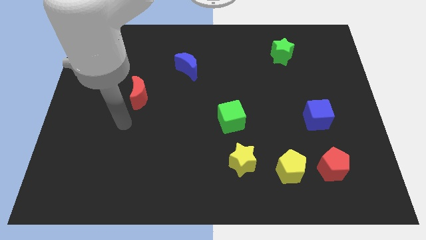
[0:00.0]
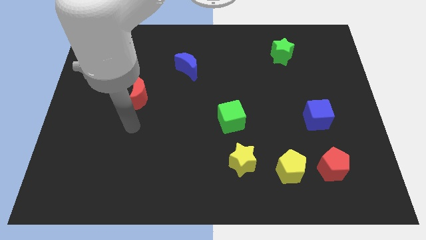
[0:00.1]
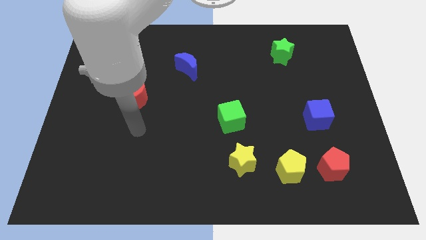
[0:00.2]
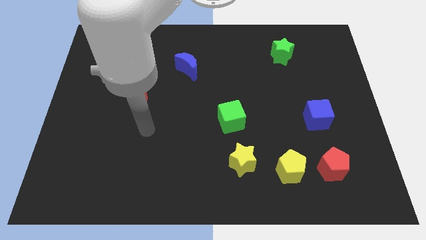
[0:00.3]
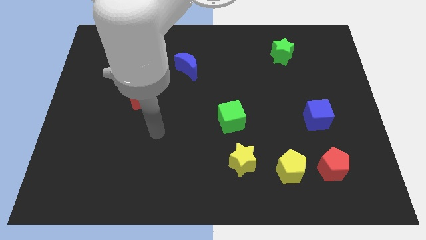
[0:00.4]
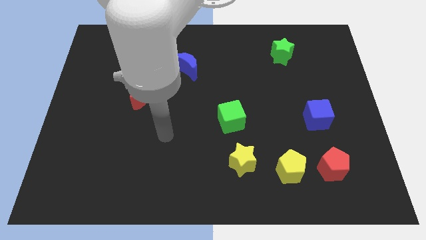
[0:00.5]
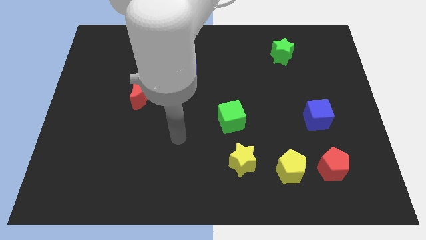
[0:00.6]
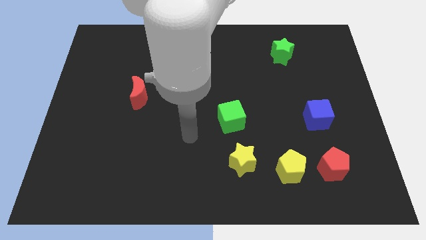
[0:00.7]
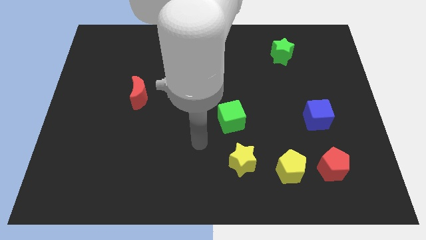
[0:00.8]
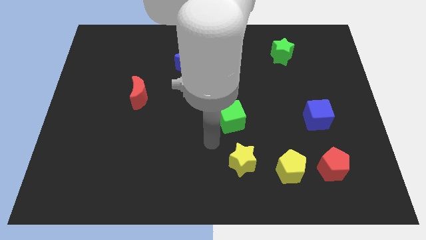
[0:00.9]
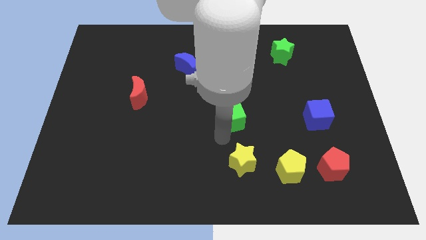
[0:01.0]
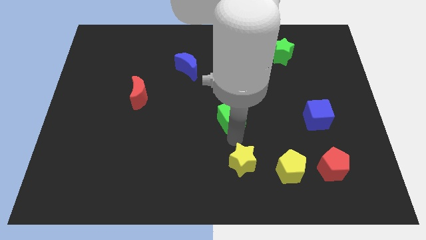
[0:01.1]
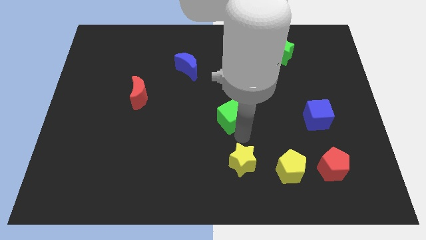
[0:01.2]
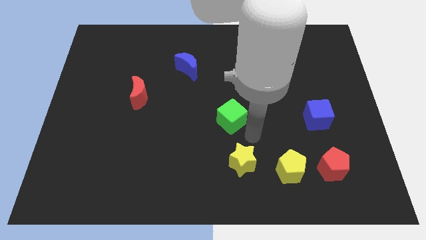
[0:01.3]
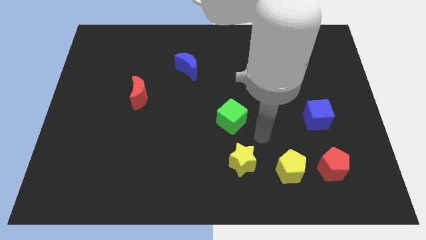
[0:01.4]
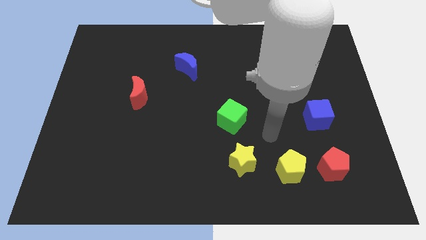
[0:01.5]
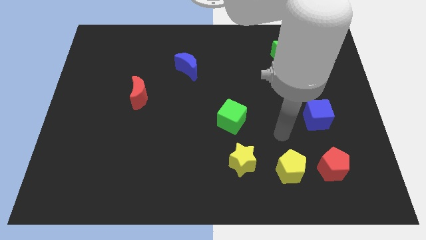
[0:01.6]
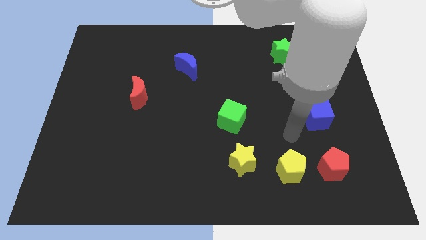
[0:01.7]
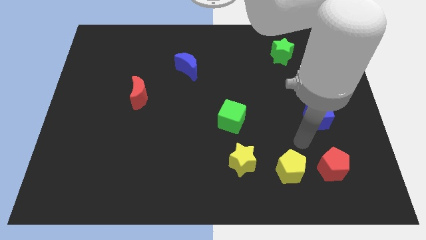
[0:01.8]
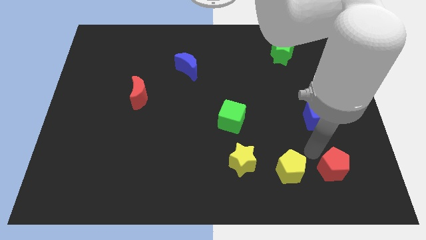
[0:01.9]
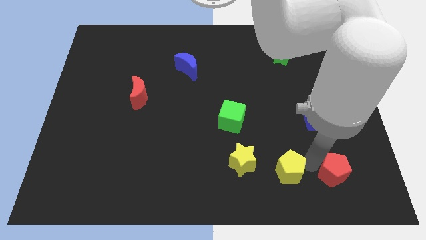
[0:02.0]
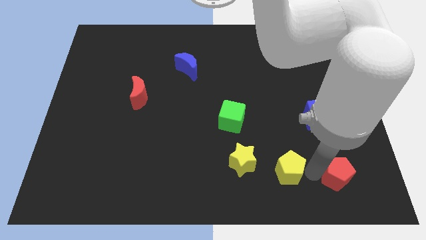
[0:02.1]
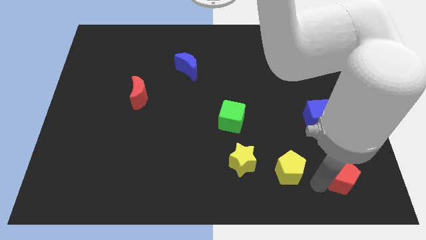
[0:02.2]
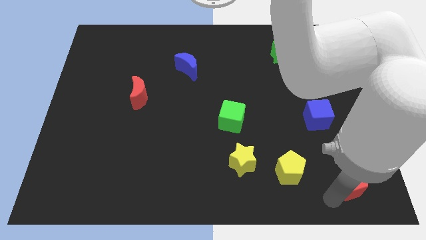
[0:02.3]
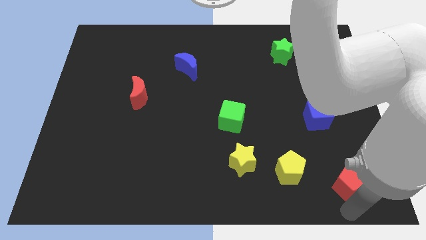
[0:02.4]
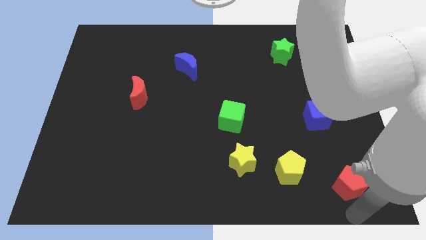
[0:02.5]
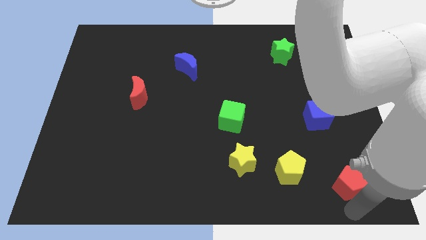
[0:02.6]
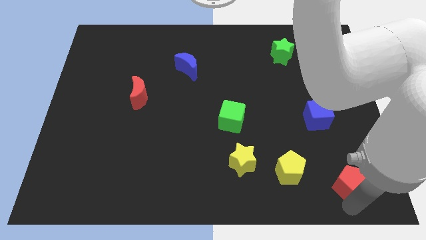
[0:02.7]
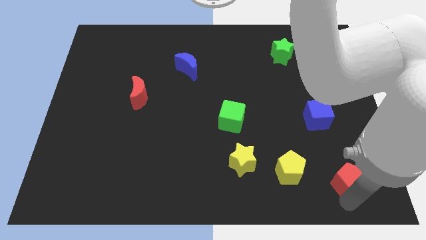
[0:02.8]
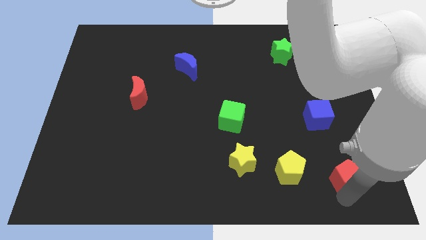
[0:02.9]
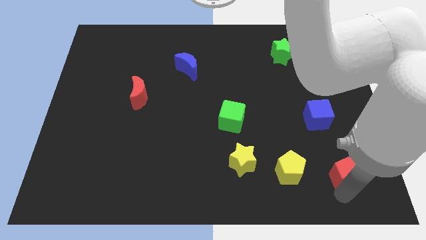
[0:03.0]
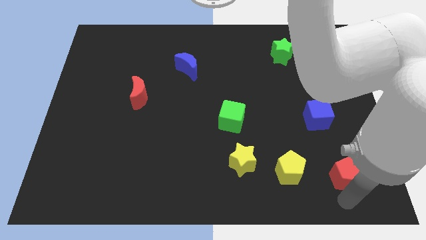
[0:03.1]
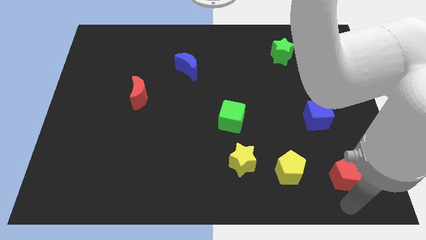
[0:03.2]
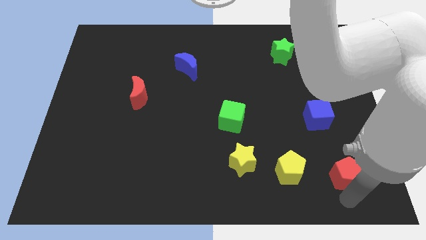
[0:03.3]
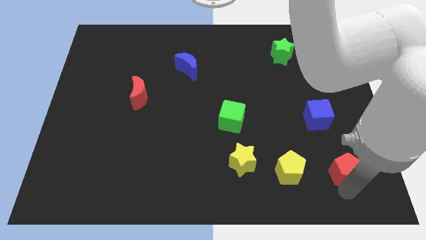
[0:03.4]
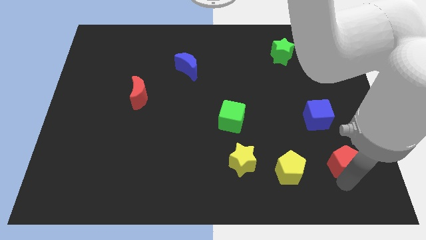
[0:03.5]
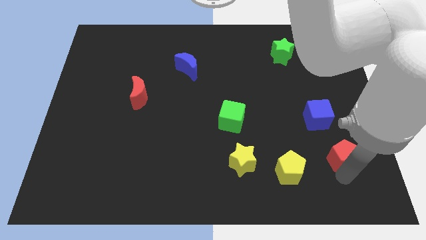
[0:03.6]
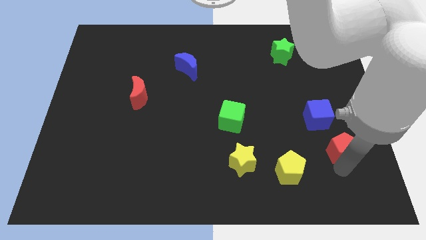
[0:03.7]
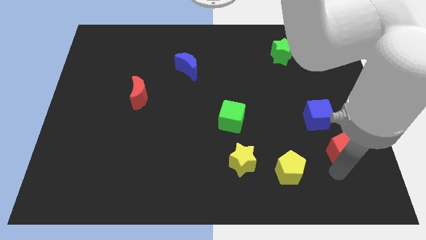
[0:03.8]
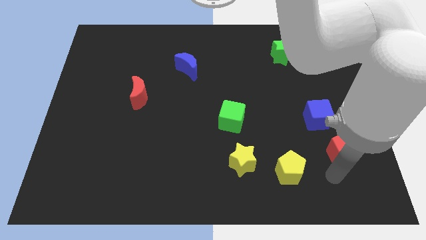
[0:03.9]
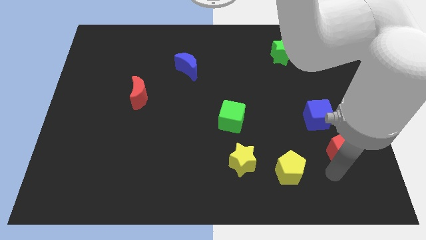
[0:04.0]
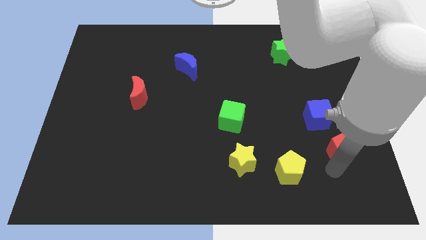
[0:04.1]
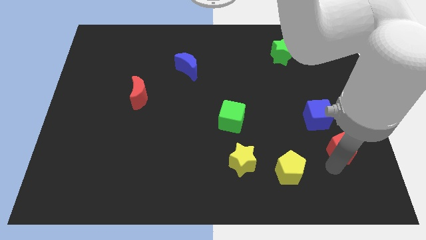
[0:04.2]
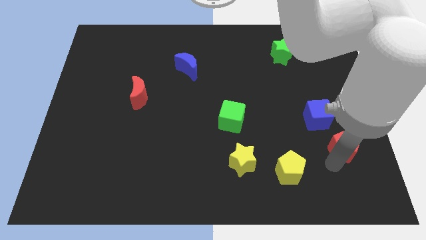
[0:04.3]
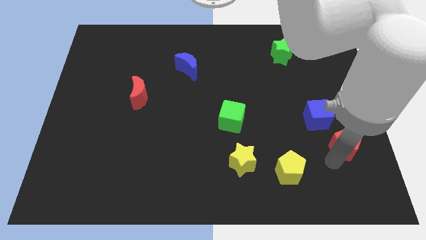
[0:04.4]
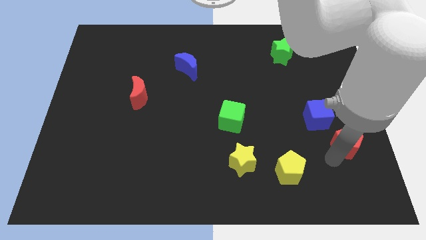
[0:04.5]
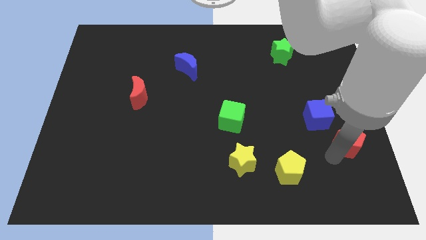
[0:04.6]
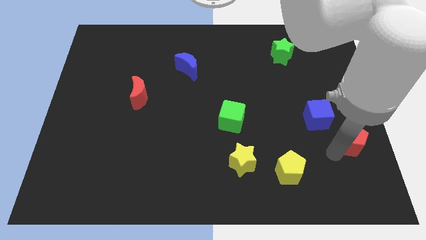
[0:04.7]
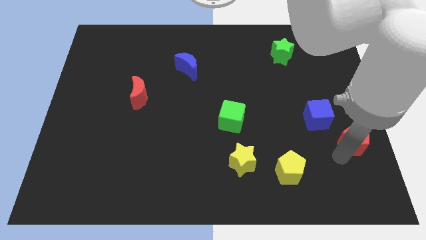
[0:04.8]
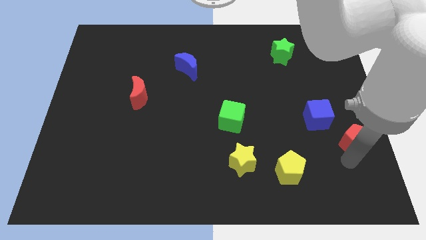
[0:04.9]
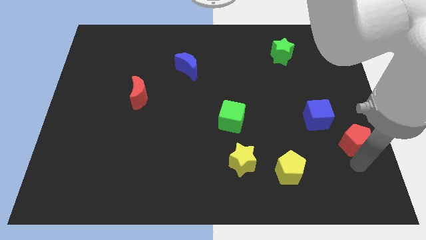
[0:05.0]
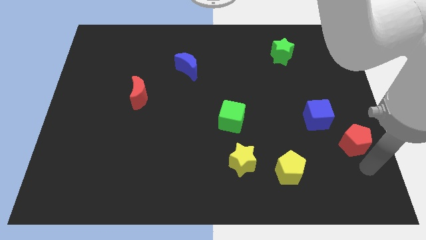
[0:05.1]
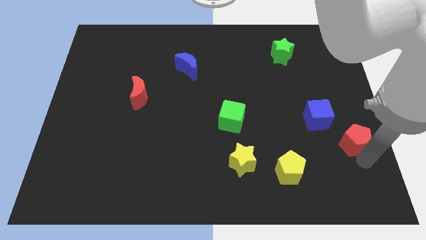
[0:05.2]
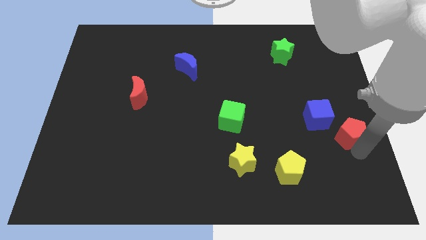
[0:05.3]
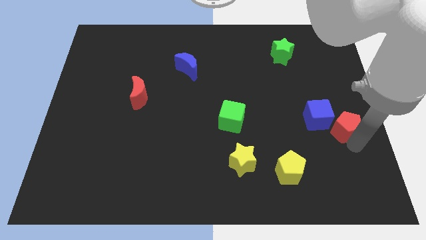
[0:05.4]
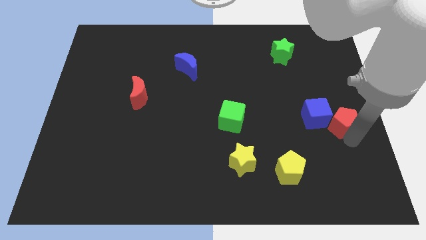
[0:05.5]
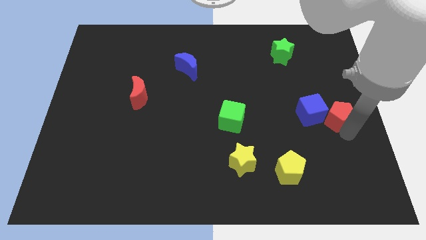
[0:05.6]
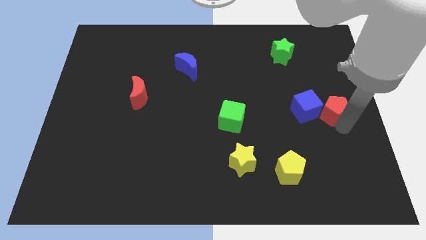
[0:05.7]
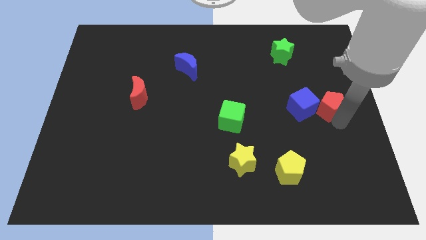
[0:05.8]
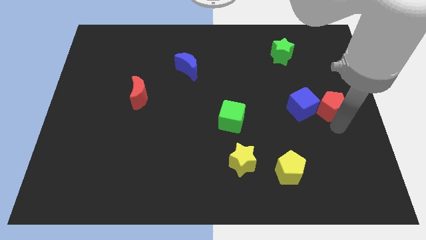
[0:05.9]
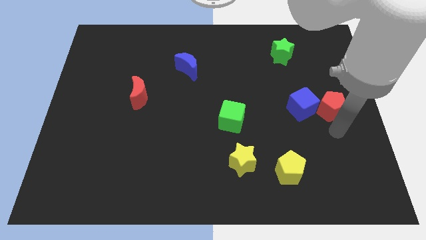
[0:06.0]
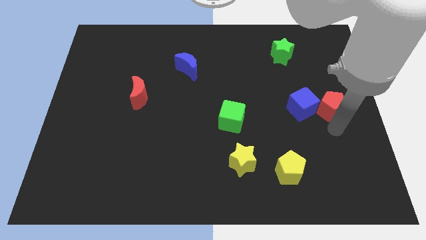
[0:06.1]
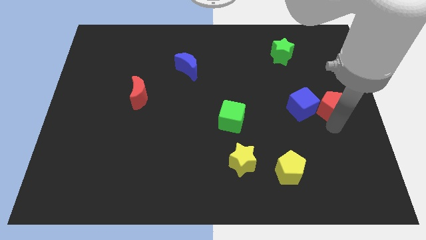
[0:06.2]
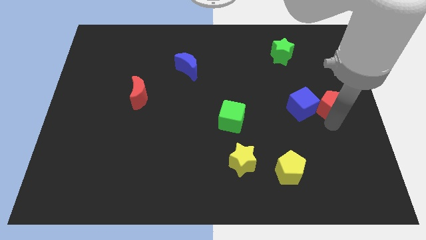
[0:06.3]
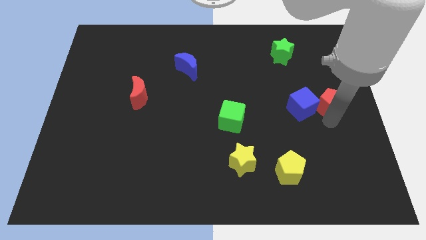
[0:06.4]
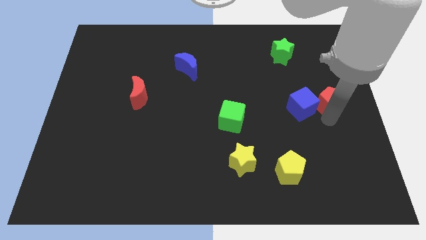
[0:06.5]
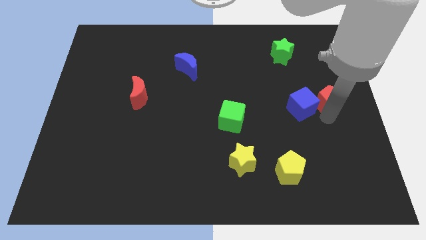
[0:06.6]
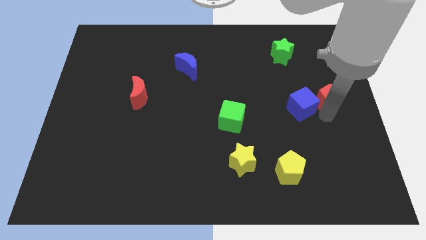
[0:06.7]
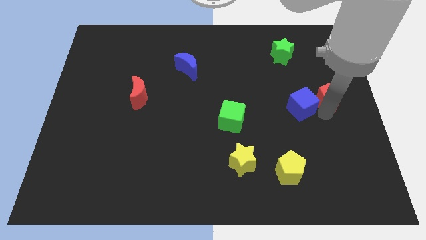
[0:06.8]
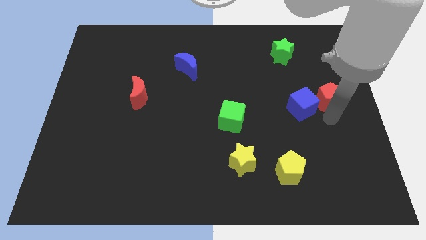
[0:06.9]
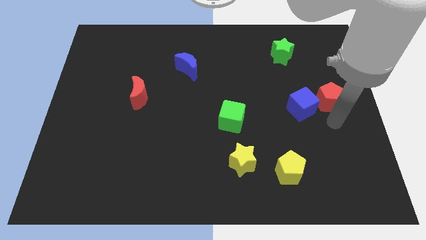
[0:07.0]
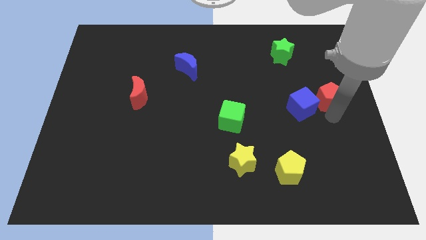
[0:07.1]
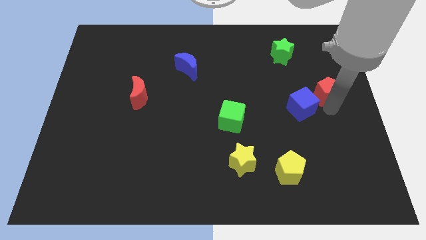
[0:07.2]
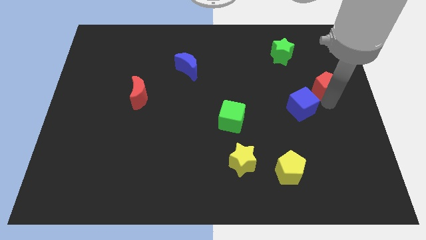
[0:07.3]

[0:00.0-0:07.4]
move the red pentagon up

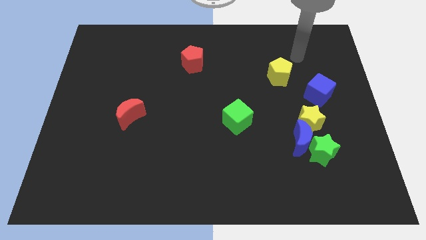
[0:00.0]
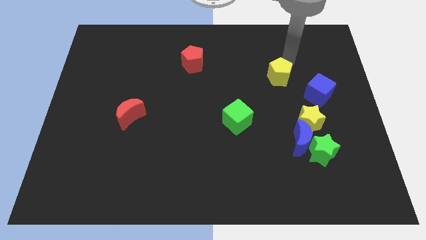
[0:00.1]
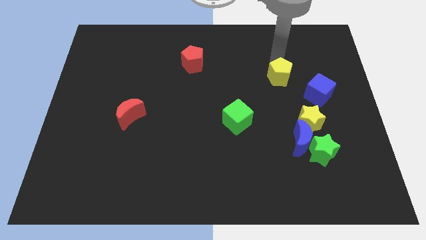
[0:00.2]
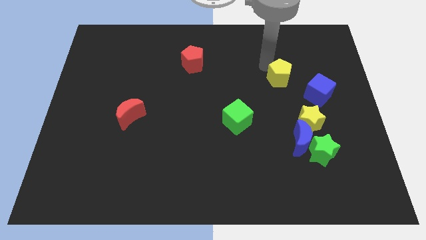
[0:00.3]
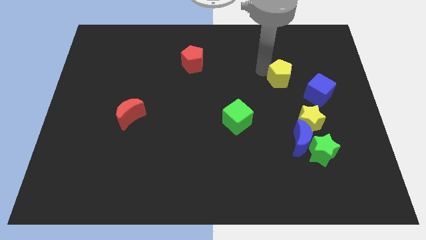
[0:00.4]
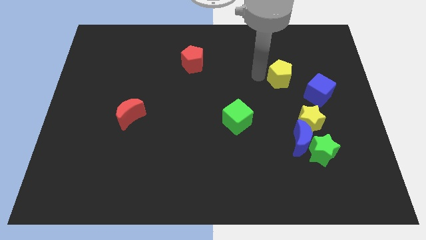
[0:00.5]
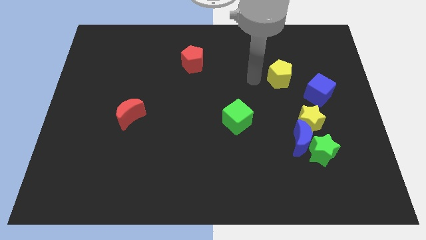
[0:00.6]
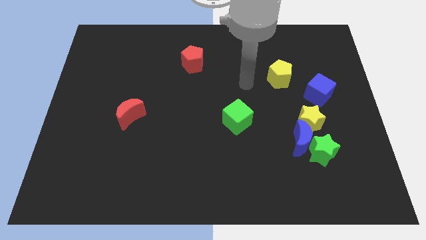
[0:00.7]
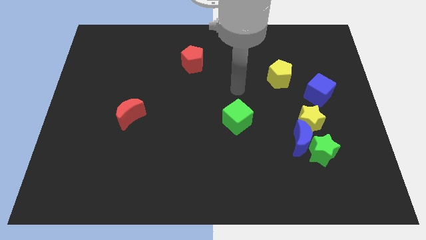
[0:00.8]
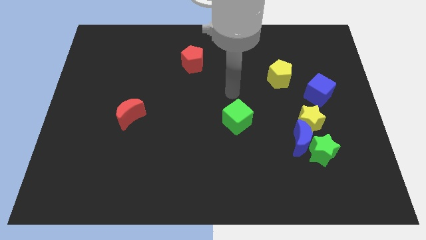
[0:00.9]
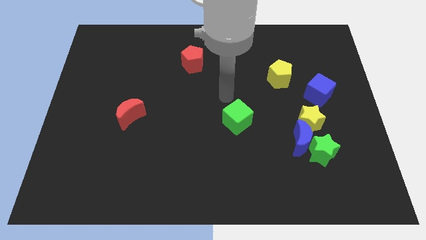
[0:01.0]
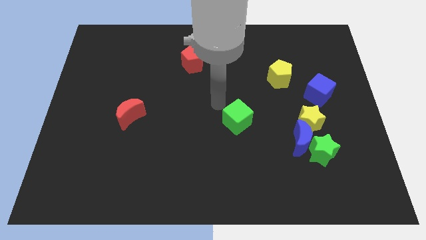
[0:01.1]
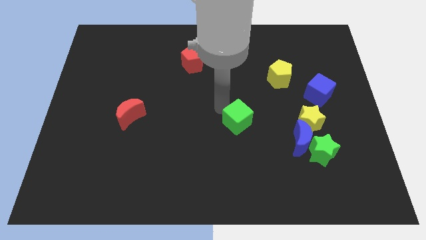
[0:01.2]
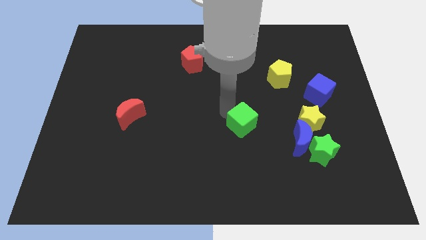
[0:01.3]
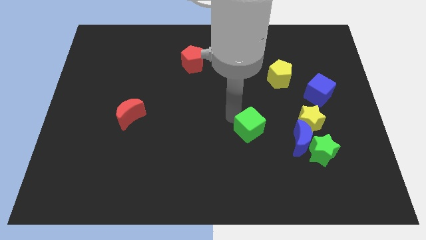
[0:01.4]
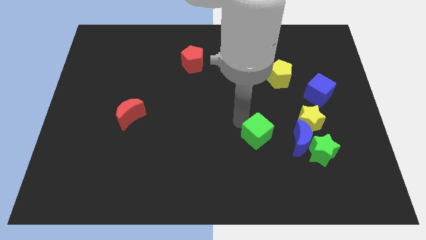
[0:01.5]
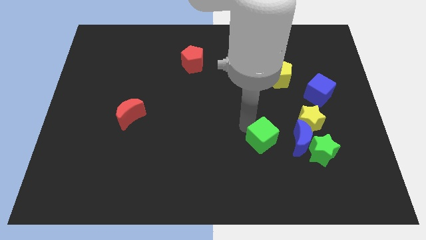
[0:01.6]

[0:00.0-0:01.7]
slide the green cube a bit down and right diagonally
